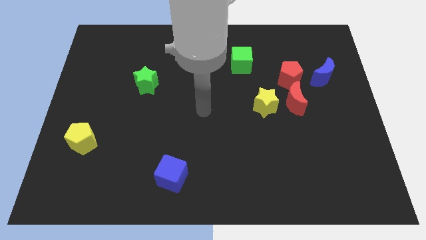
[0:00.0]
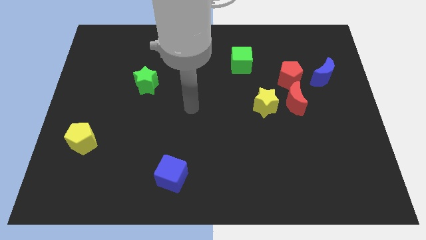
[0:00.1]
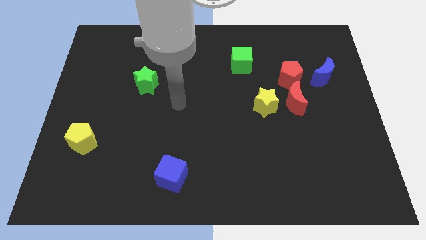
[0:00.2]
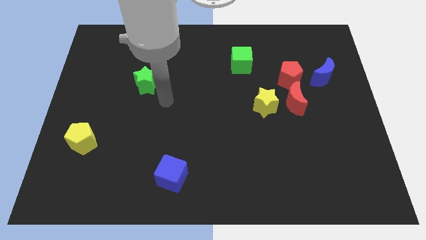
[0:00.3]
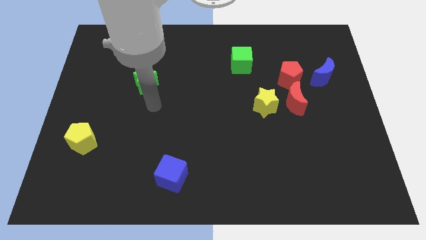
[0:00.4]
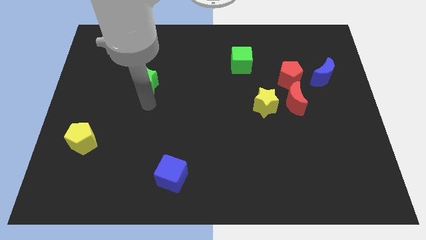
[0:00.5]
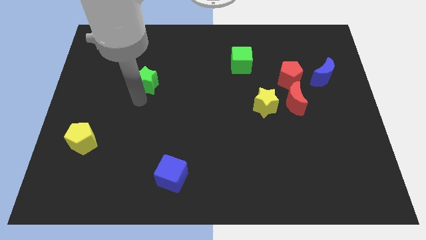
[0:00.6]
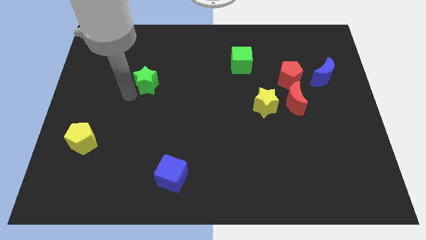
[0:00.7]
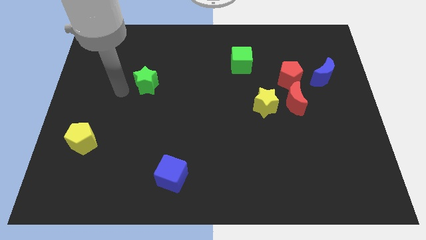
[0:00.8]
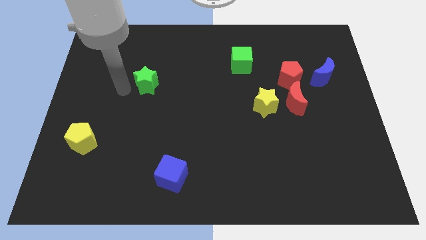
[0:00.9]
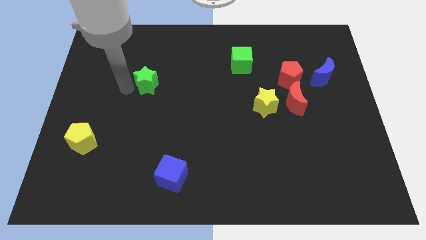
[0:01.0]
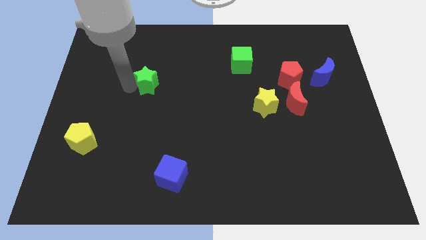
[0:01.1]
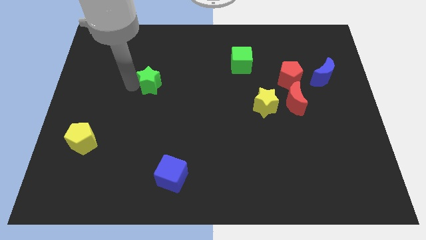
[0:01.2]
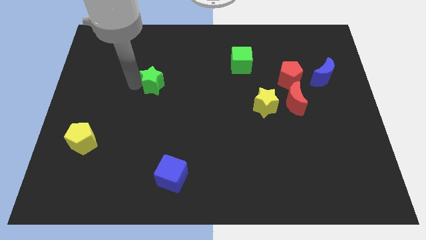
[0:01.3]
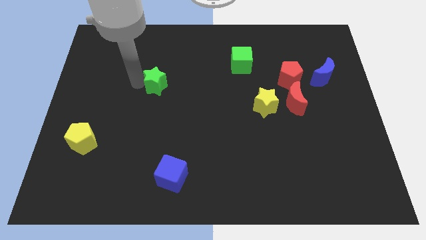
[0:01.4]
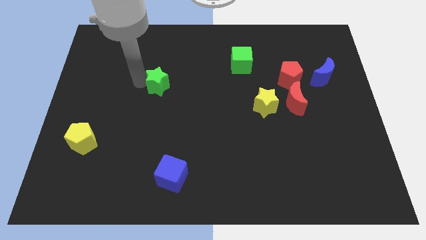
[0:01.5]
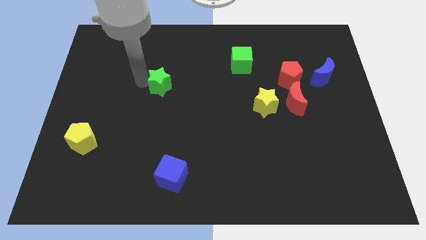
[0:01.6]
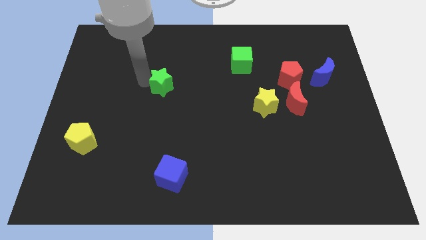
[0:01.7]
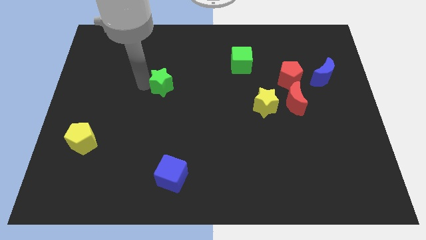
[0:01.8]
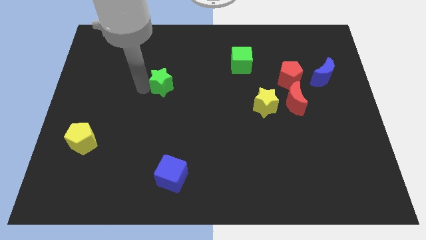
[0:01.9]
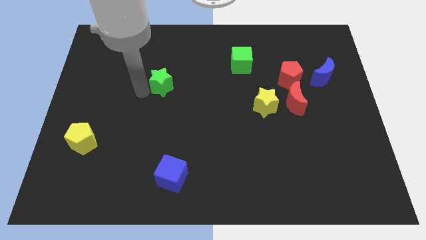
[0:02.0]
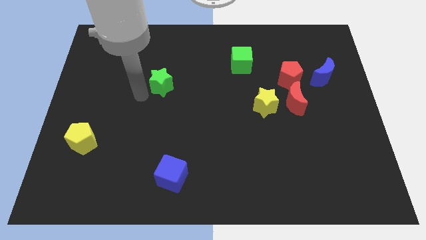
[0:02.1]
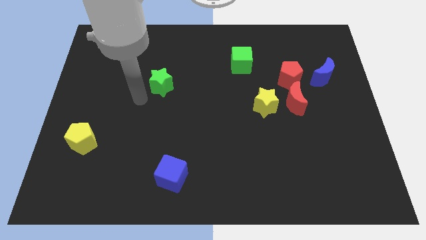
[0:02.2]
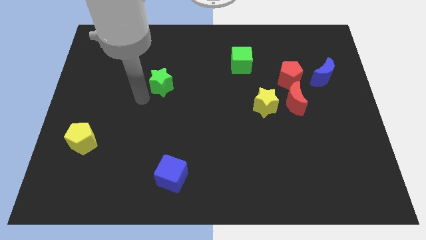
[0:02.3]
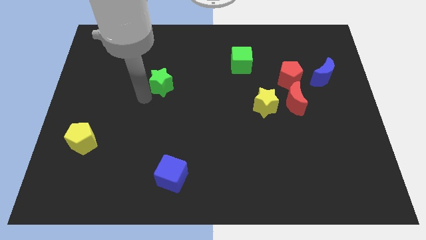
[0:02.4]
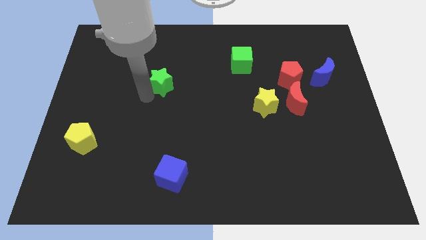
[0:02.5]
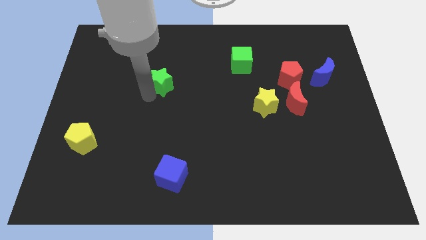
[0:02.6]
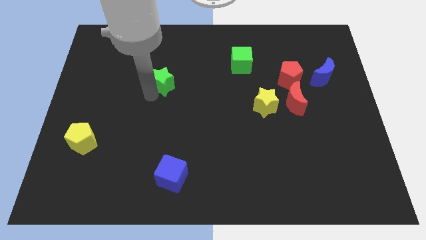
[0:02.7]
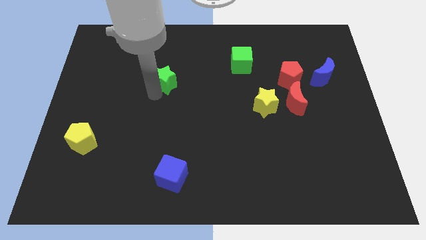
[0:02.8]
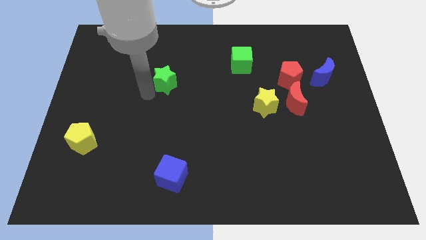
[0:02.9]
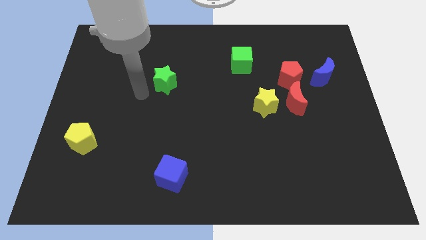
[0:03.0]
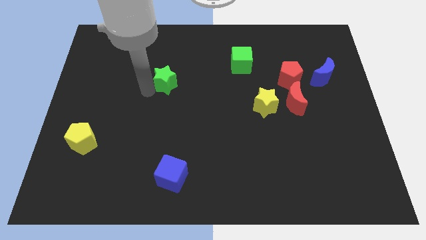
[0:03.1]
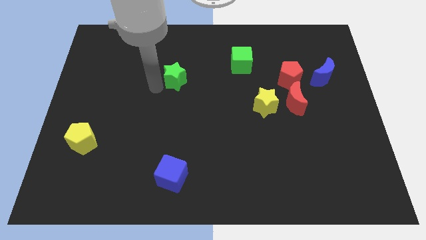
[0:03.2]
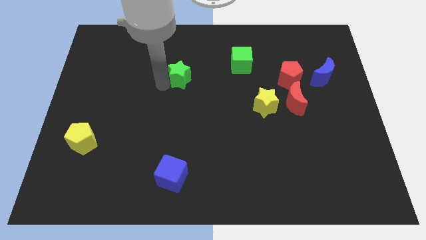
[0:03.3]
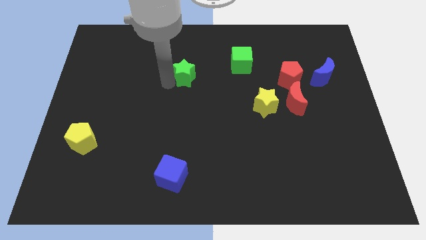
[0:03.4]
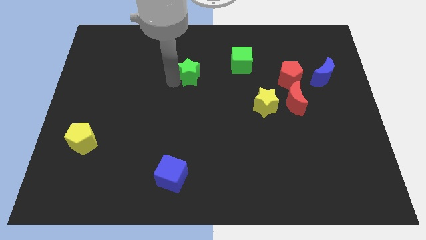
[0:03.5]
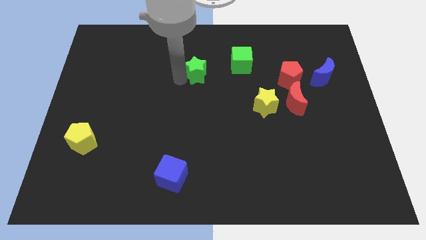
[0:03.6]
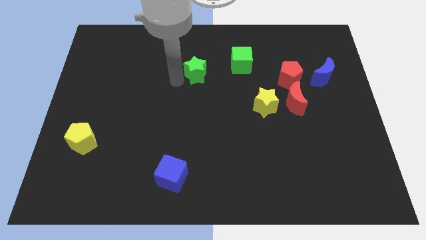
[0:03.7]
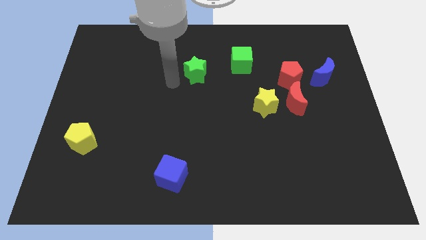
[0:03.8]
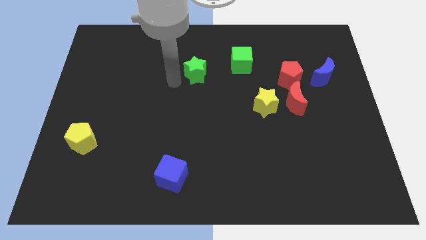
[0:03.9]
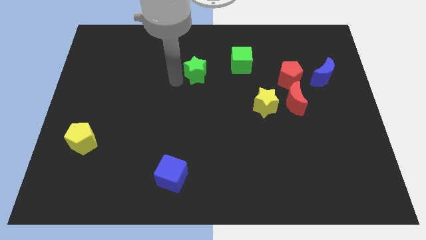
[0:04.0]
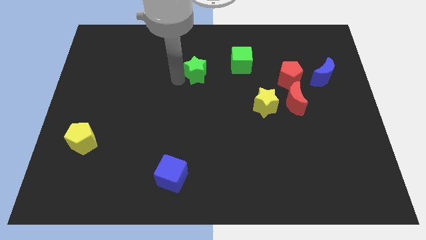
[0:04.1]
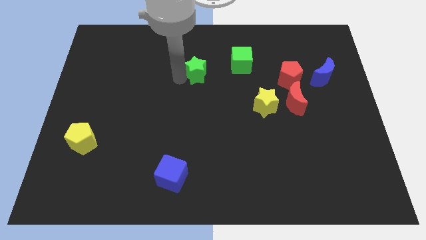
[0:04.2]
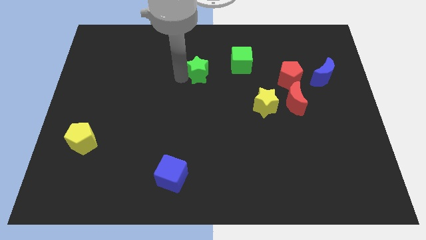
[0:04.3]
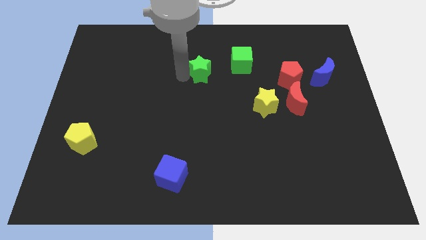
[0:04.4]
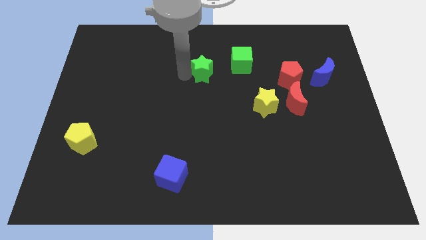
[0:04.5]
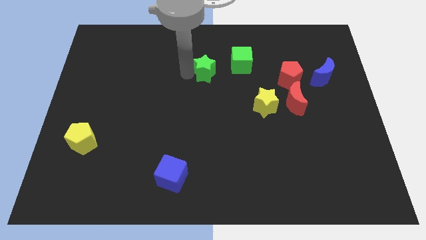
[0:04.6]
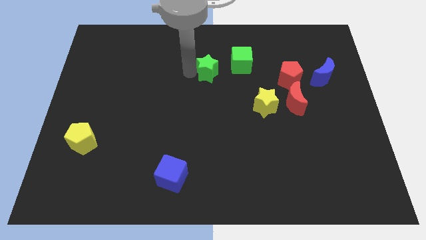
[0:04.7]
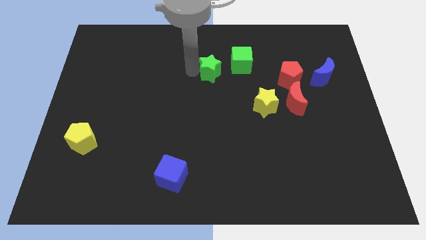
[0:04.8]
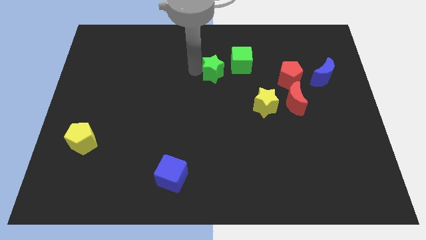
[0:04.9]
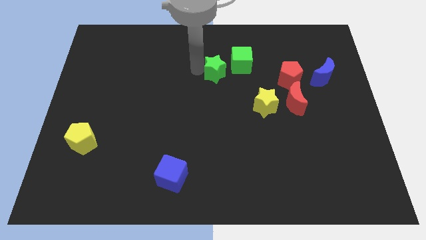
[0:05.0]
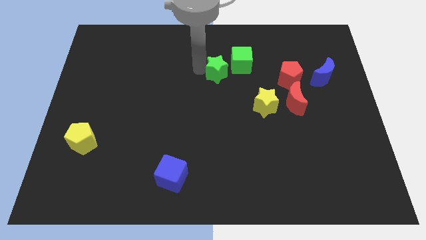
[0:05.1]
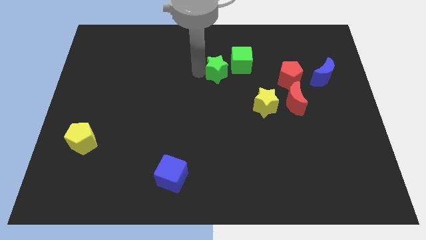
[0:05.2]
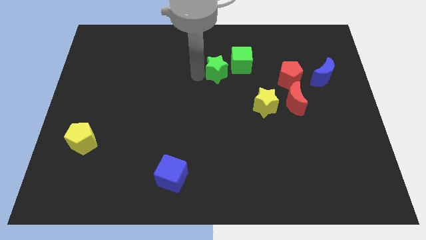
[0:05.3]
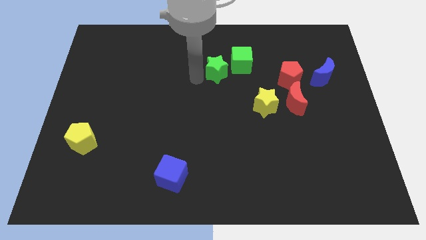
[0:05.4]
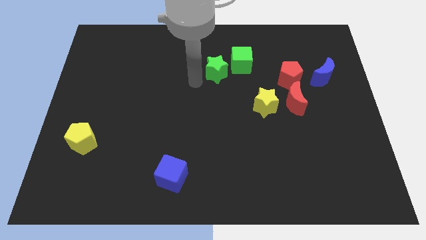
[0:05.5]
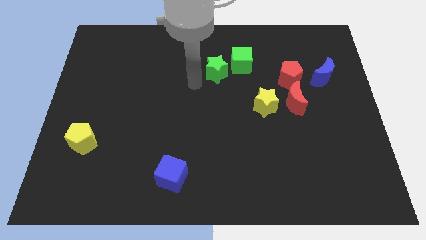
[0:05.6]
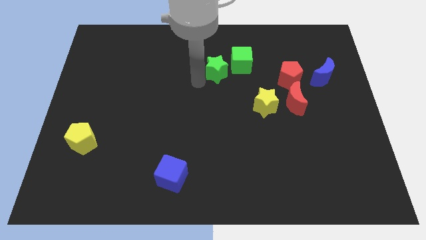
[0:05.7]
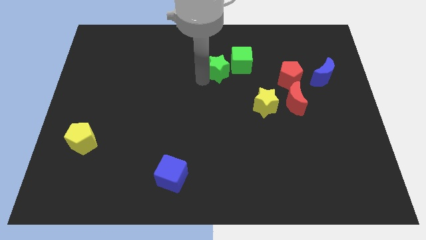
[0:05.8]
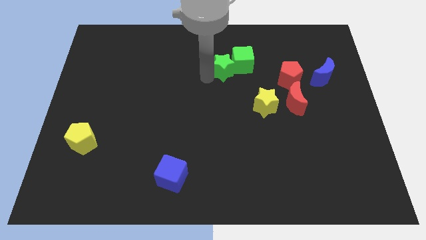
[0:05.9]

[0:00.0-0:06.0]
push the green star close to the green cube

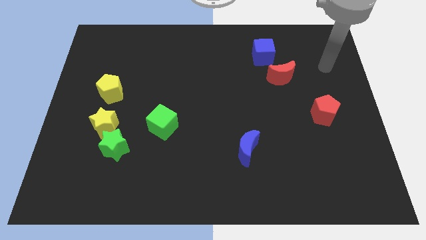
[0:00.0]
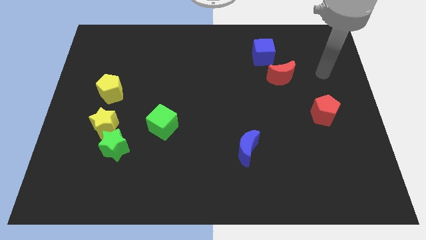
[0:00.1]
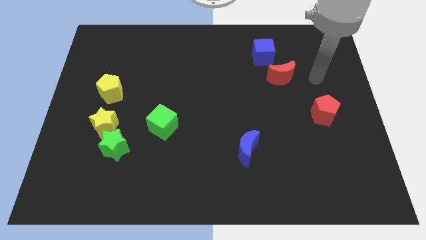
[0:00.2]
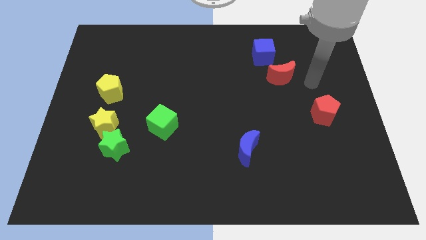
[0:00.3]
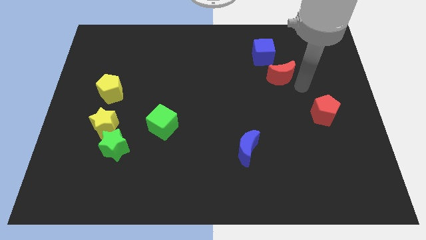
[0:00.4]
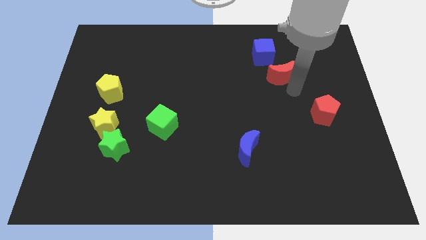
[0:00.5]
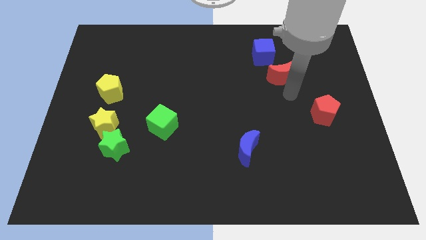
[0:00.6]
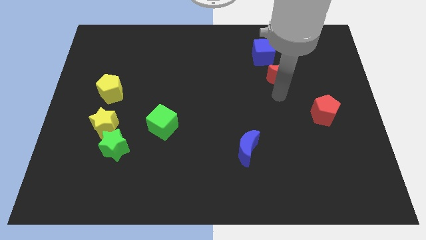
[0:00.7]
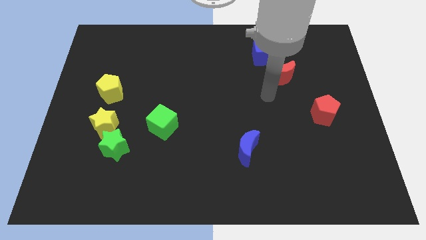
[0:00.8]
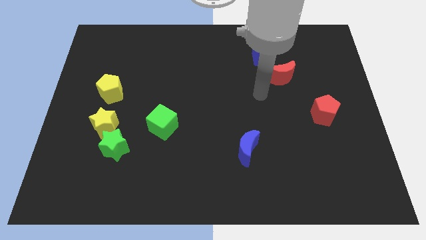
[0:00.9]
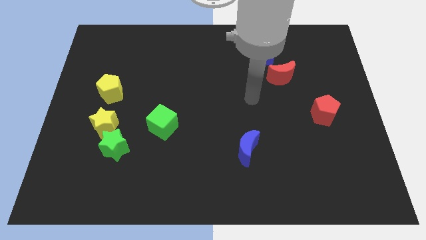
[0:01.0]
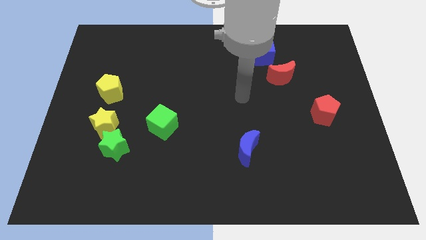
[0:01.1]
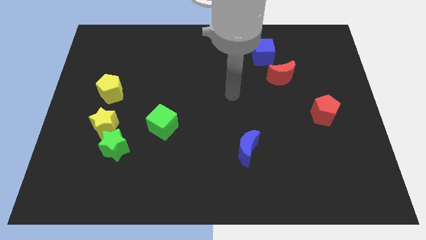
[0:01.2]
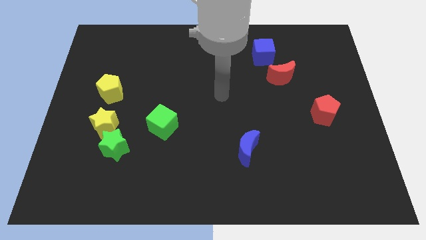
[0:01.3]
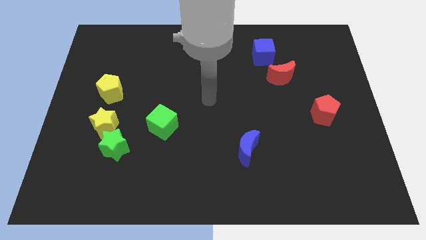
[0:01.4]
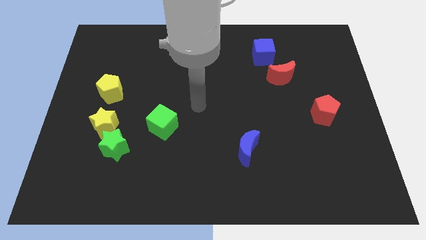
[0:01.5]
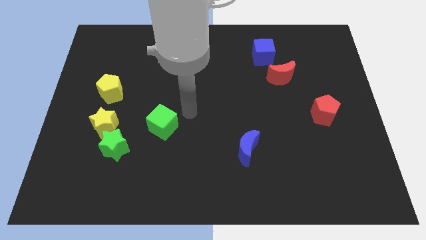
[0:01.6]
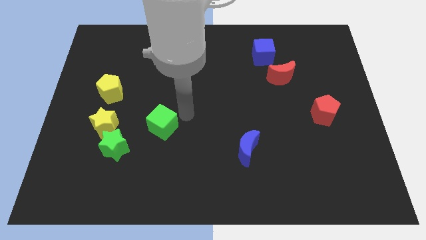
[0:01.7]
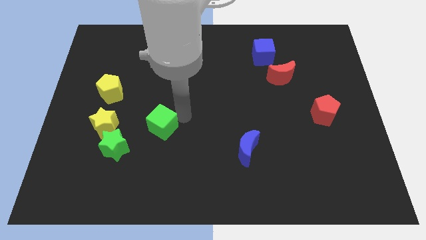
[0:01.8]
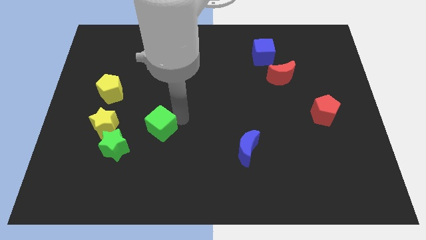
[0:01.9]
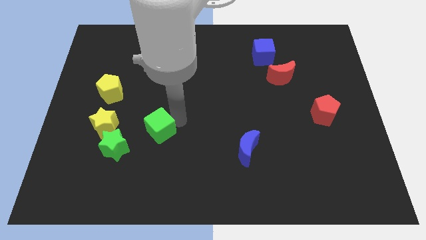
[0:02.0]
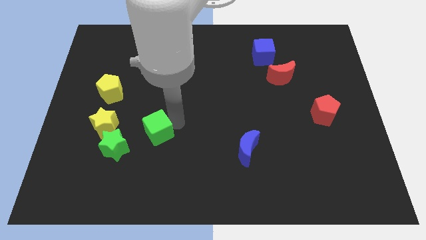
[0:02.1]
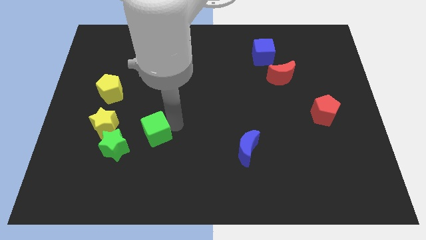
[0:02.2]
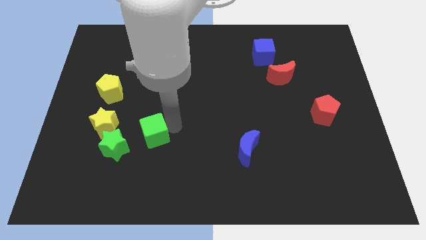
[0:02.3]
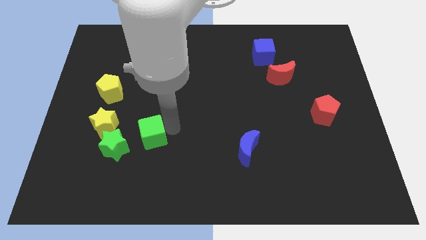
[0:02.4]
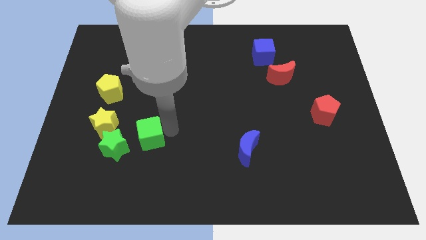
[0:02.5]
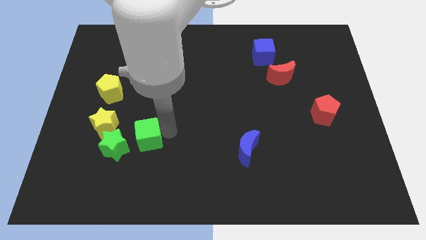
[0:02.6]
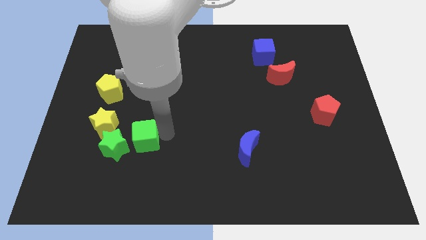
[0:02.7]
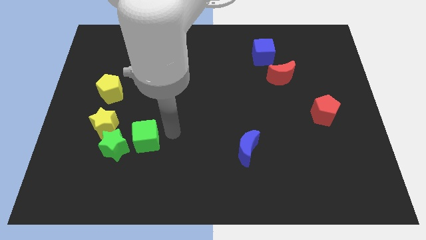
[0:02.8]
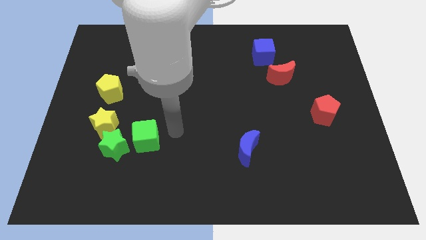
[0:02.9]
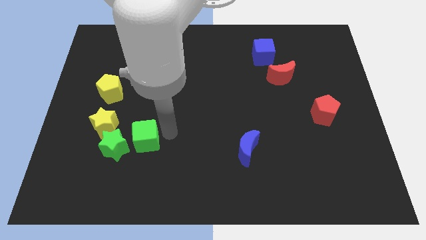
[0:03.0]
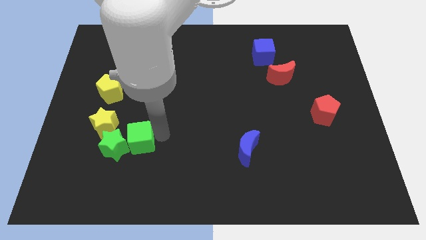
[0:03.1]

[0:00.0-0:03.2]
slide the green cube towards the green star
